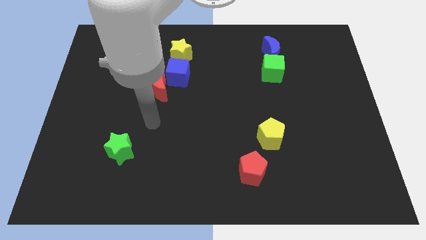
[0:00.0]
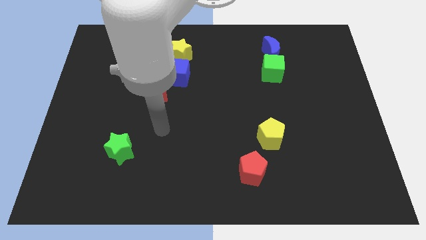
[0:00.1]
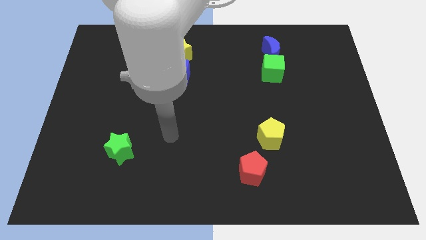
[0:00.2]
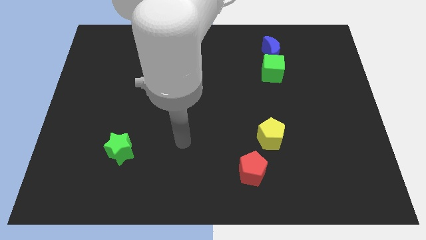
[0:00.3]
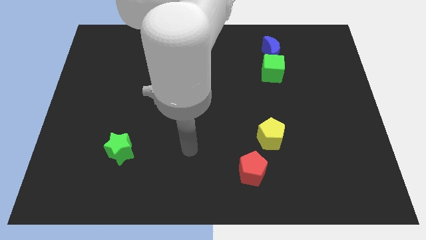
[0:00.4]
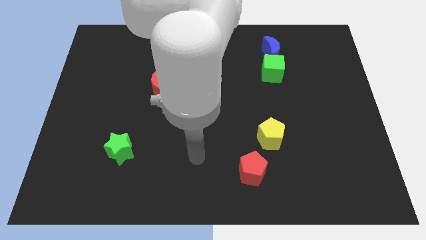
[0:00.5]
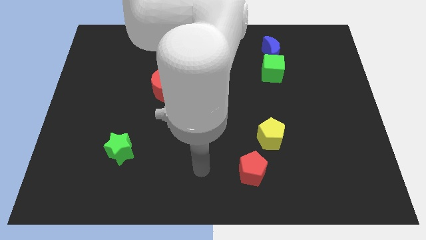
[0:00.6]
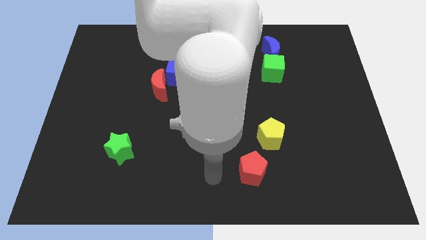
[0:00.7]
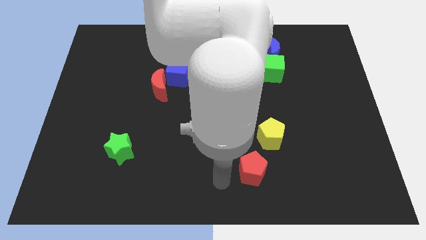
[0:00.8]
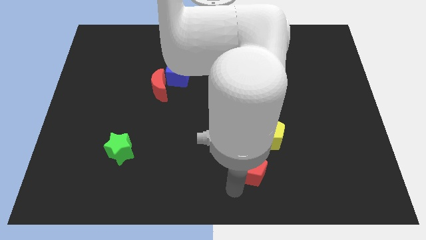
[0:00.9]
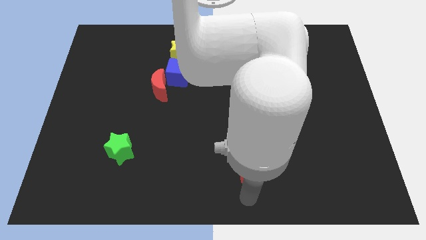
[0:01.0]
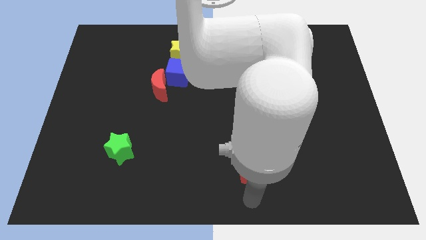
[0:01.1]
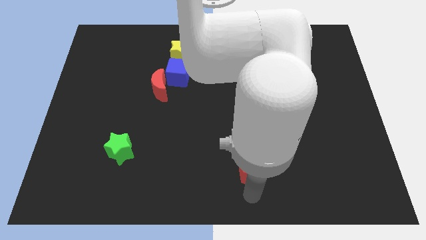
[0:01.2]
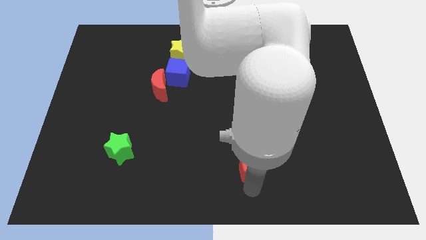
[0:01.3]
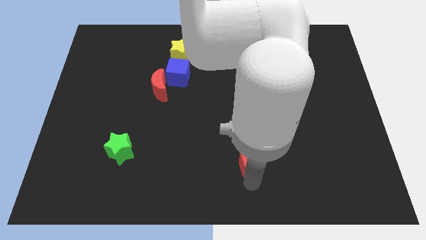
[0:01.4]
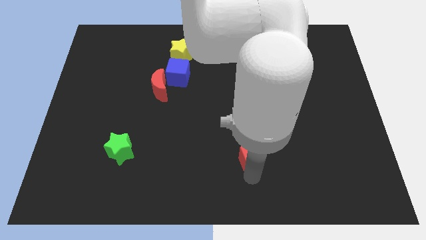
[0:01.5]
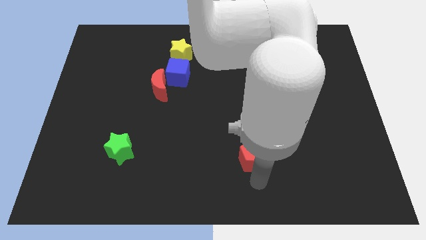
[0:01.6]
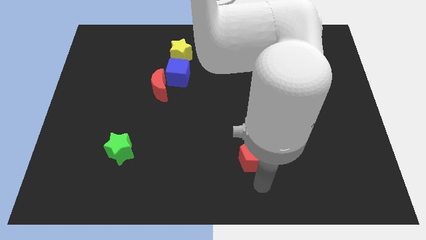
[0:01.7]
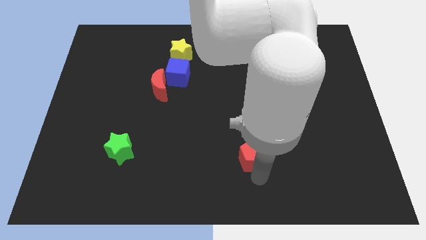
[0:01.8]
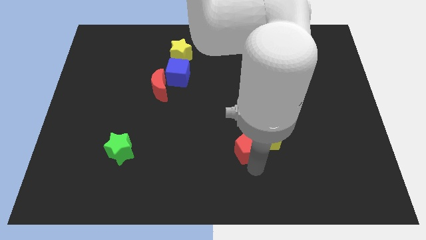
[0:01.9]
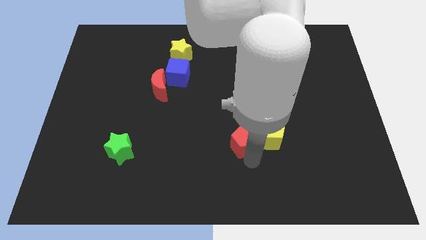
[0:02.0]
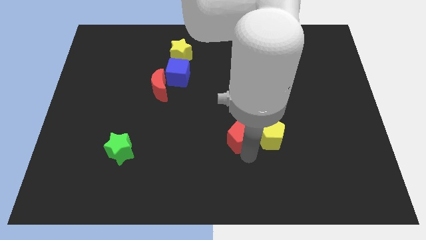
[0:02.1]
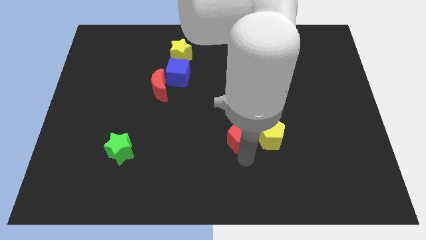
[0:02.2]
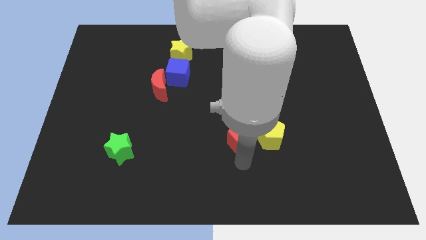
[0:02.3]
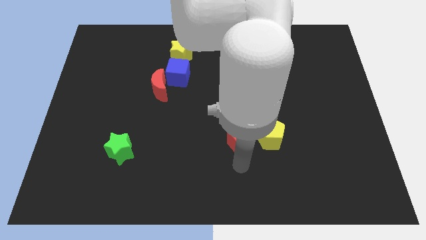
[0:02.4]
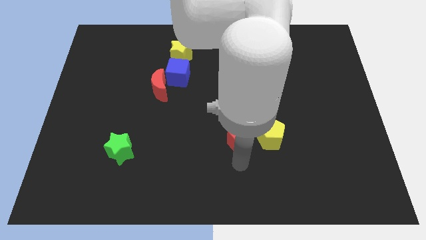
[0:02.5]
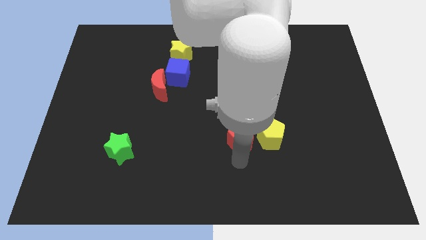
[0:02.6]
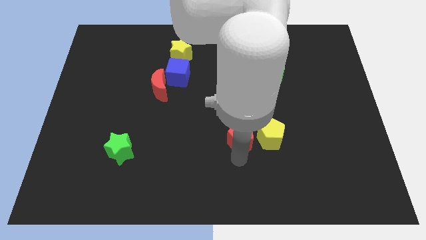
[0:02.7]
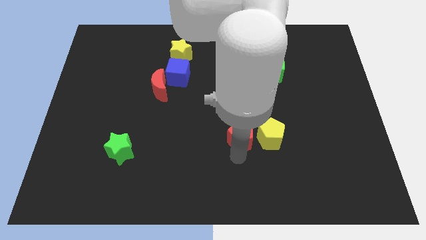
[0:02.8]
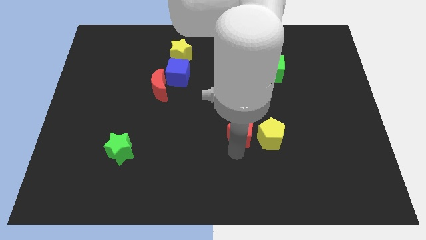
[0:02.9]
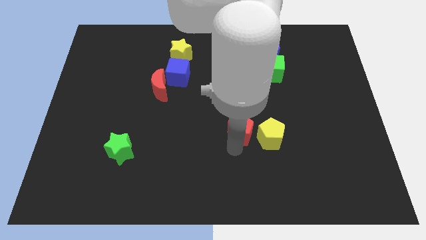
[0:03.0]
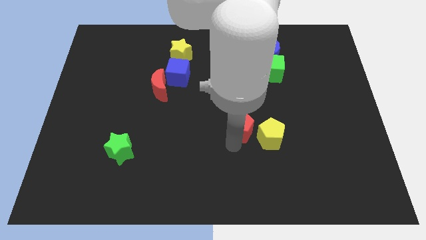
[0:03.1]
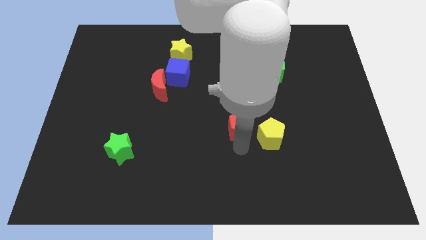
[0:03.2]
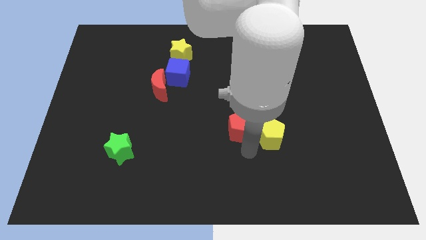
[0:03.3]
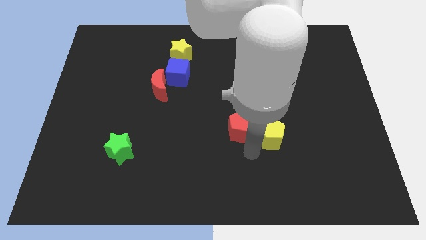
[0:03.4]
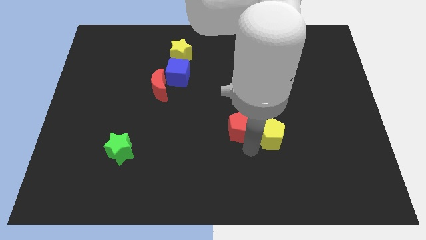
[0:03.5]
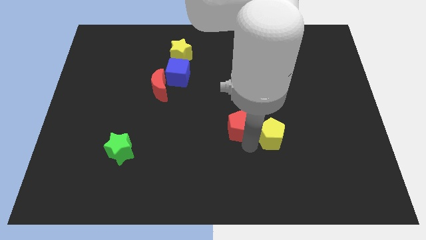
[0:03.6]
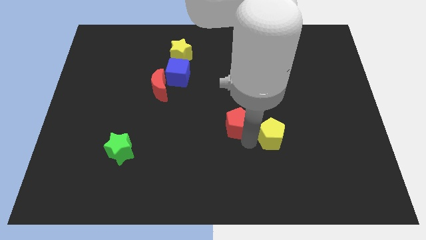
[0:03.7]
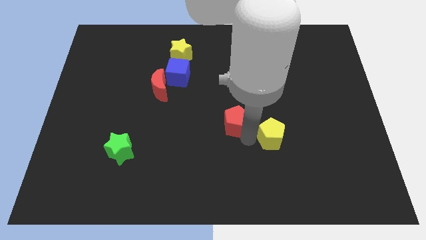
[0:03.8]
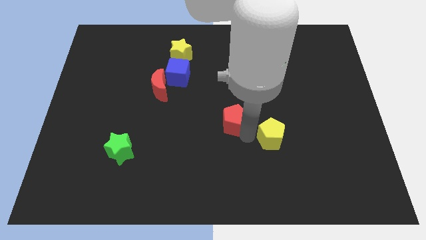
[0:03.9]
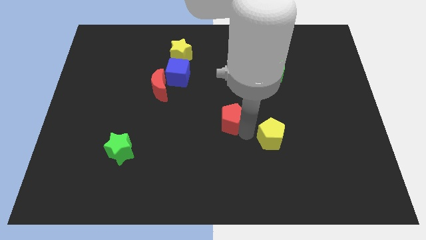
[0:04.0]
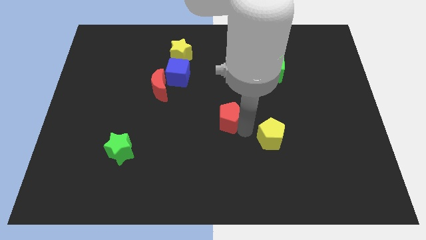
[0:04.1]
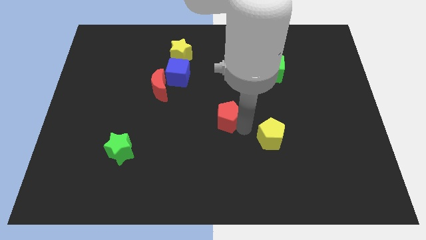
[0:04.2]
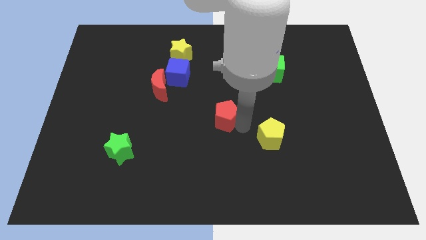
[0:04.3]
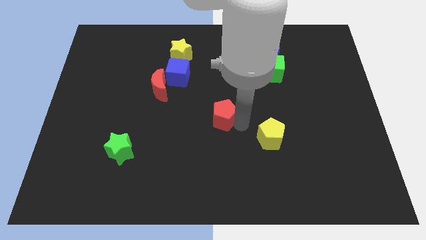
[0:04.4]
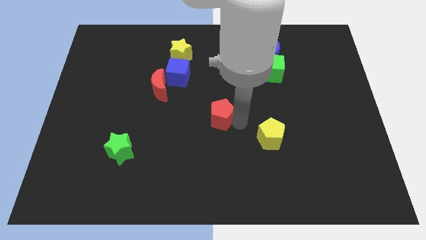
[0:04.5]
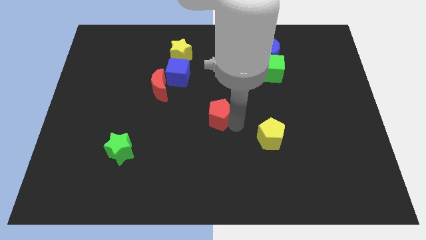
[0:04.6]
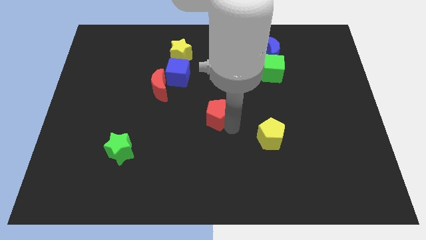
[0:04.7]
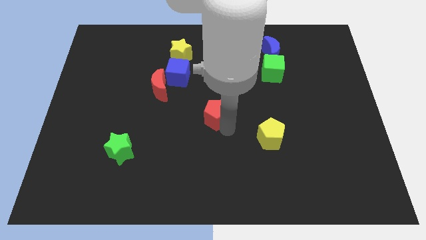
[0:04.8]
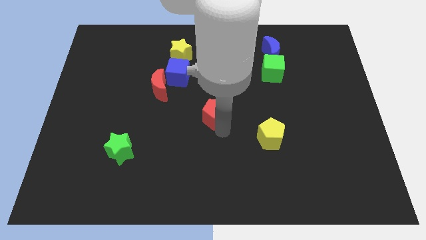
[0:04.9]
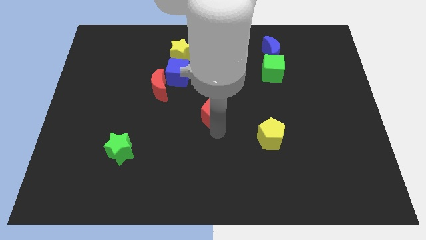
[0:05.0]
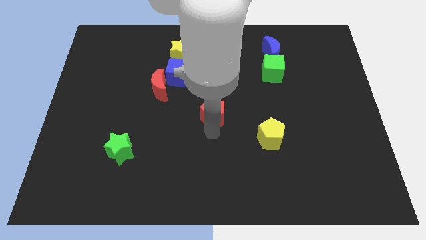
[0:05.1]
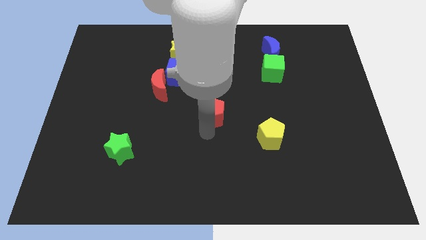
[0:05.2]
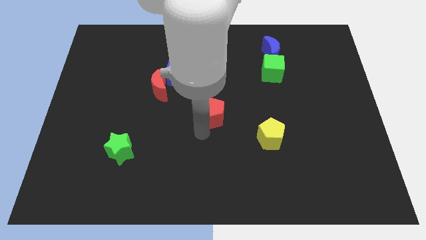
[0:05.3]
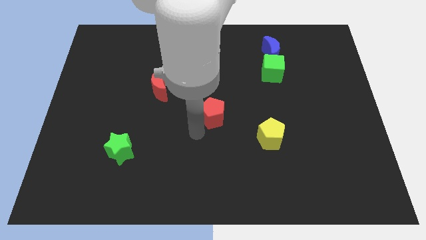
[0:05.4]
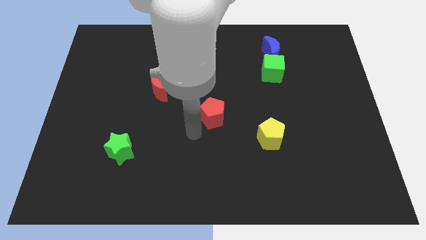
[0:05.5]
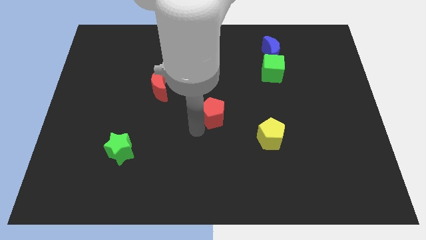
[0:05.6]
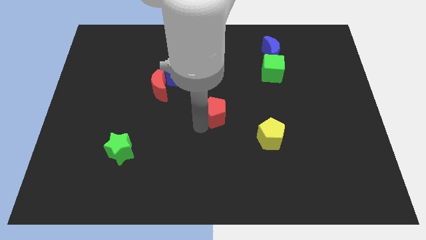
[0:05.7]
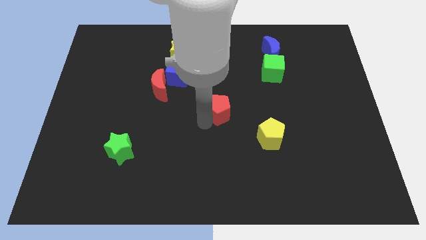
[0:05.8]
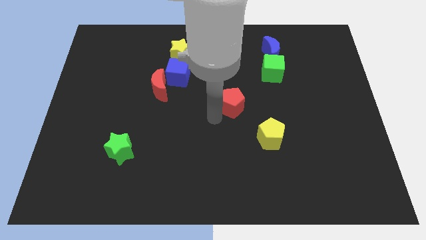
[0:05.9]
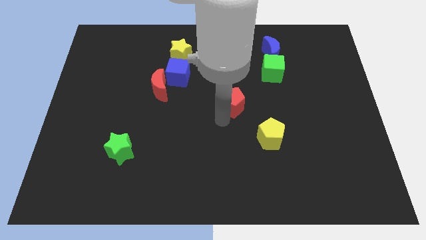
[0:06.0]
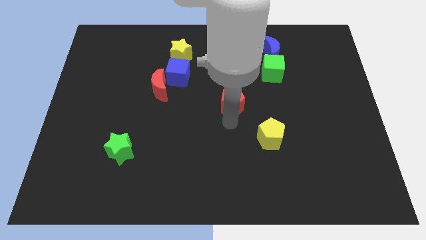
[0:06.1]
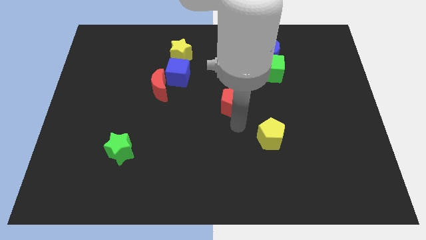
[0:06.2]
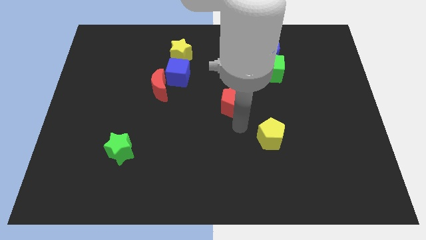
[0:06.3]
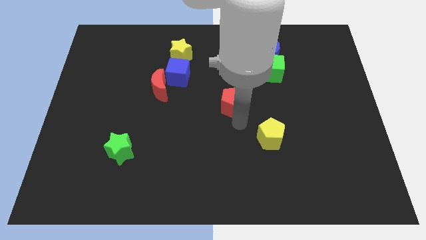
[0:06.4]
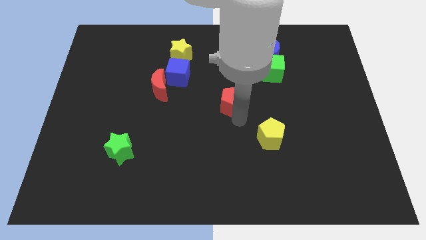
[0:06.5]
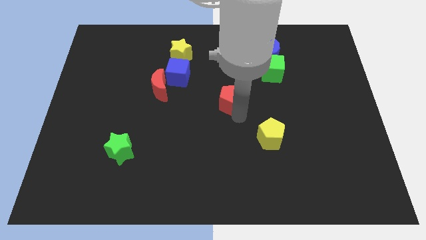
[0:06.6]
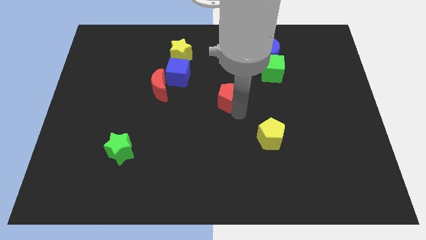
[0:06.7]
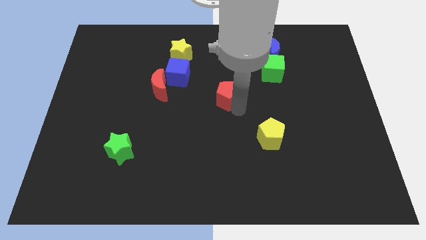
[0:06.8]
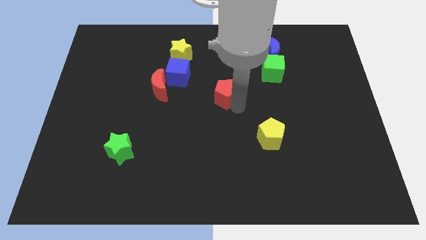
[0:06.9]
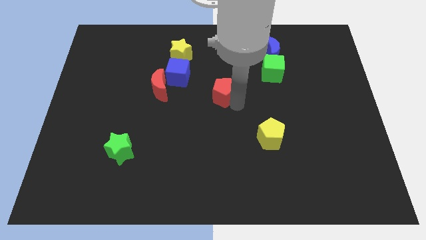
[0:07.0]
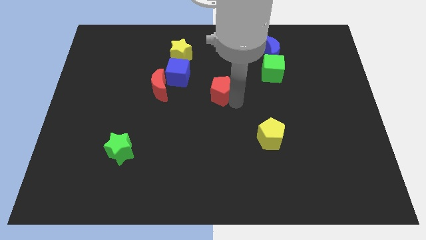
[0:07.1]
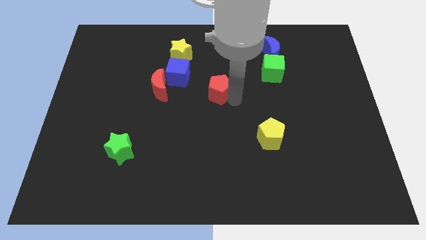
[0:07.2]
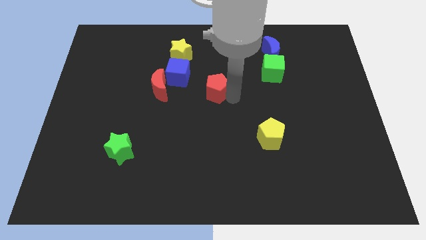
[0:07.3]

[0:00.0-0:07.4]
put the red pentagon right of the blue cube
